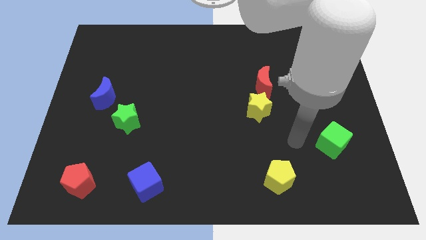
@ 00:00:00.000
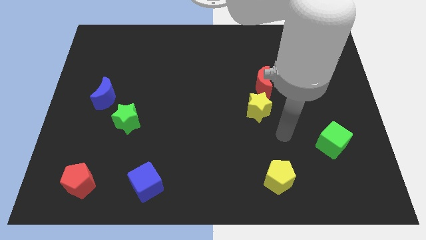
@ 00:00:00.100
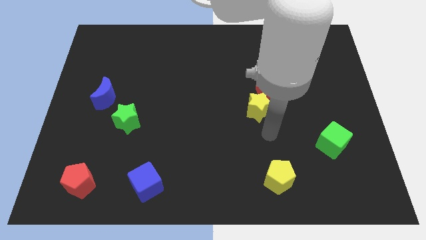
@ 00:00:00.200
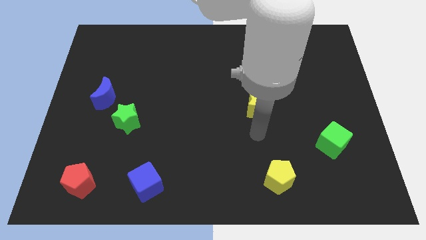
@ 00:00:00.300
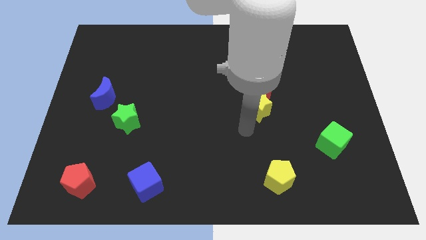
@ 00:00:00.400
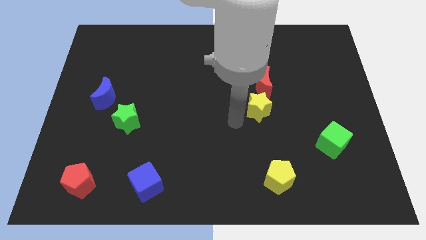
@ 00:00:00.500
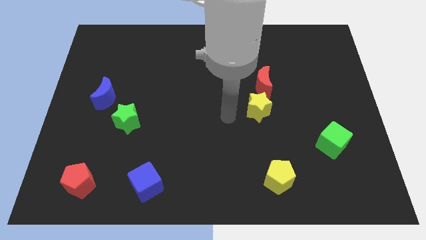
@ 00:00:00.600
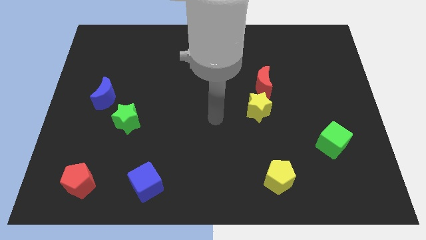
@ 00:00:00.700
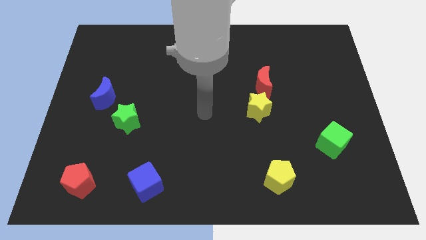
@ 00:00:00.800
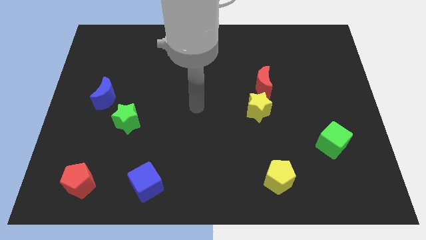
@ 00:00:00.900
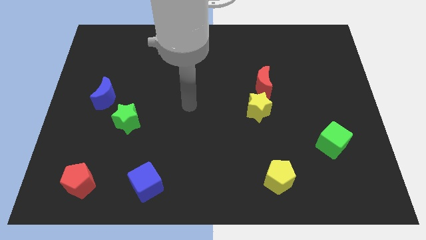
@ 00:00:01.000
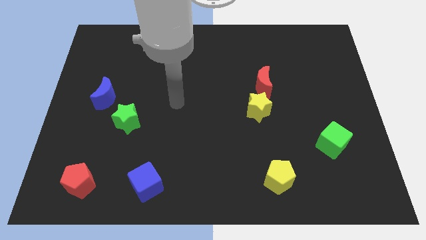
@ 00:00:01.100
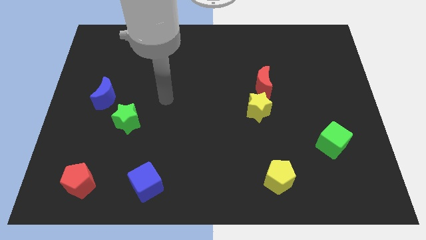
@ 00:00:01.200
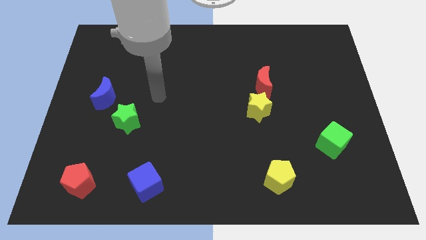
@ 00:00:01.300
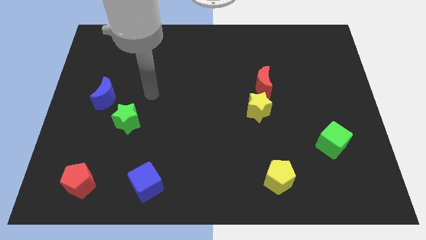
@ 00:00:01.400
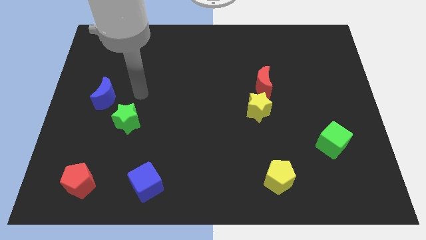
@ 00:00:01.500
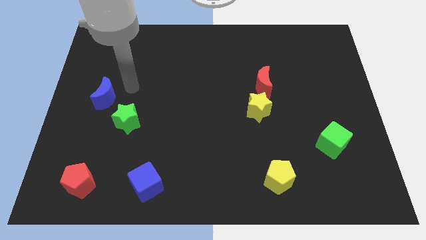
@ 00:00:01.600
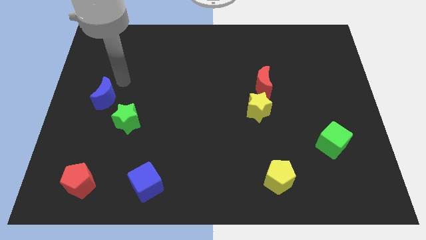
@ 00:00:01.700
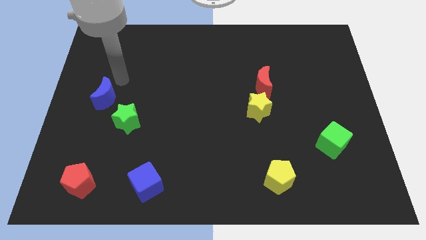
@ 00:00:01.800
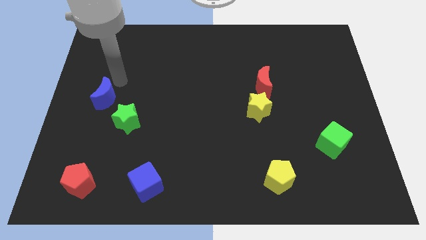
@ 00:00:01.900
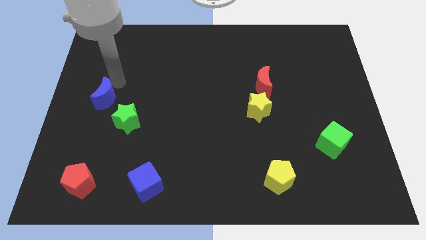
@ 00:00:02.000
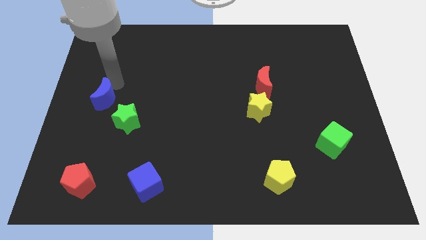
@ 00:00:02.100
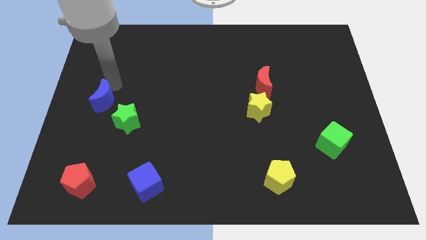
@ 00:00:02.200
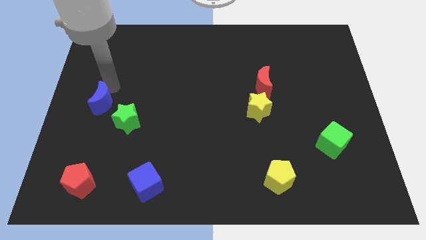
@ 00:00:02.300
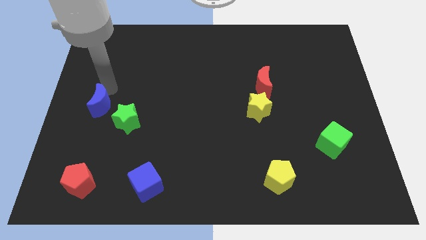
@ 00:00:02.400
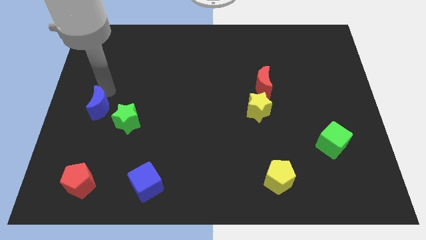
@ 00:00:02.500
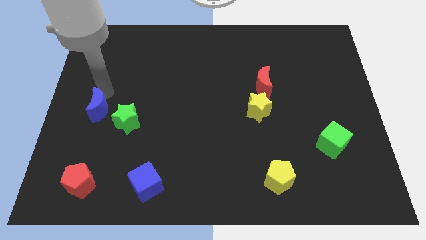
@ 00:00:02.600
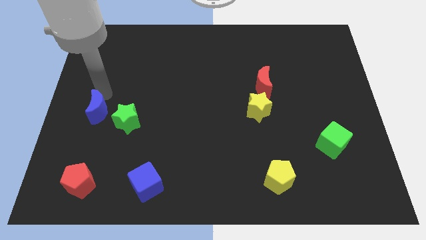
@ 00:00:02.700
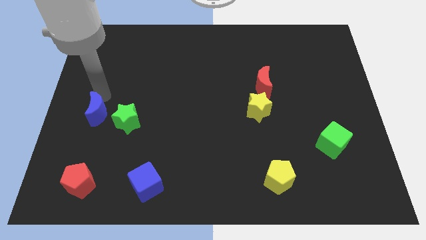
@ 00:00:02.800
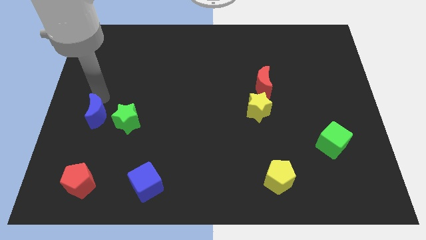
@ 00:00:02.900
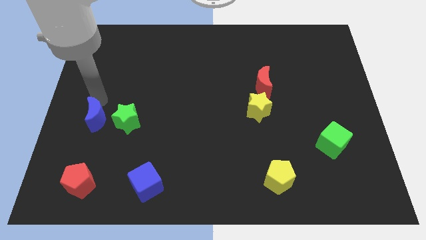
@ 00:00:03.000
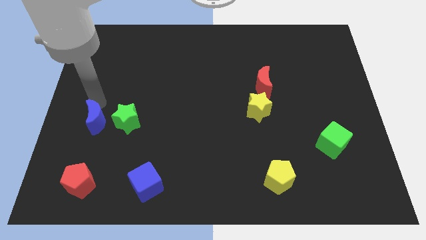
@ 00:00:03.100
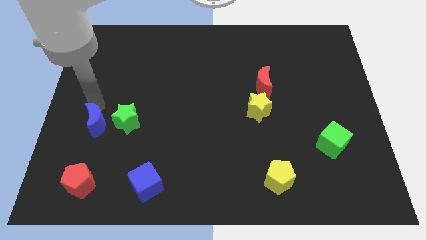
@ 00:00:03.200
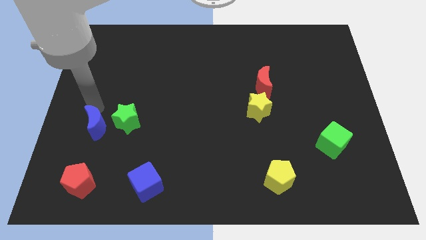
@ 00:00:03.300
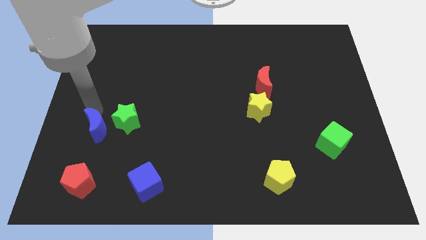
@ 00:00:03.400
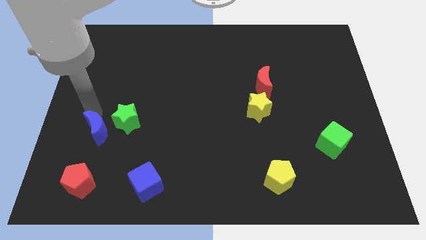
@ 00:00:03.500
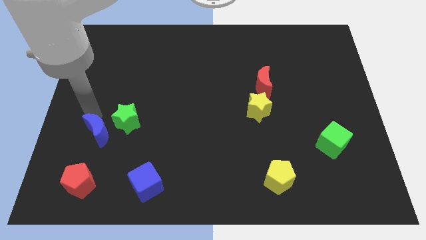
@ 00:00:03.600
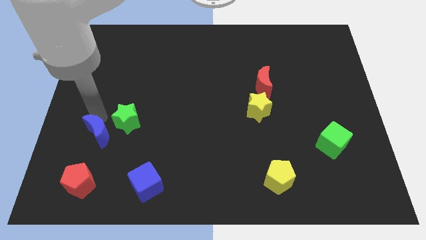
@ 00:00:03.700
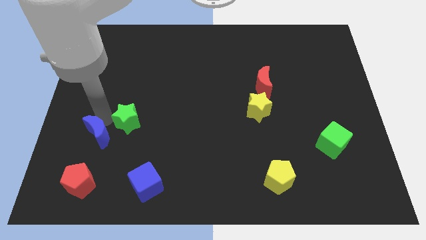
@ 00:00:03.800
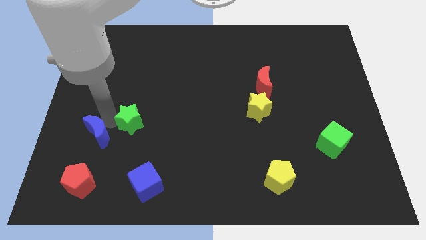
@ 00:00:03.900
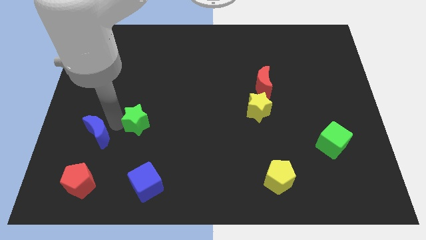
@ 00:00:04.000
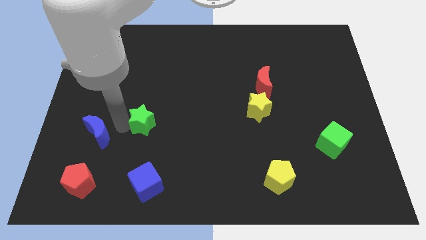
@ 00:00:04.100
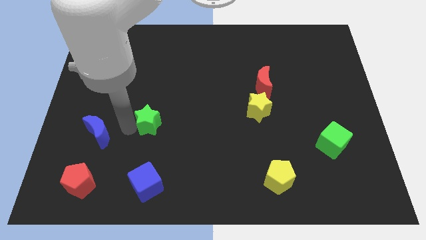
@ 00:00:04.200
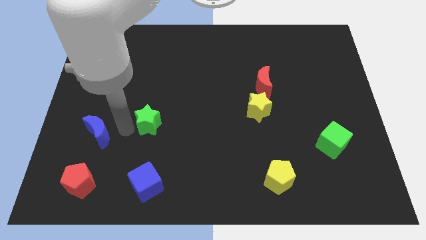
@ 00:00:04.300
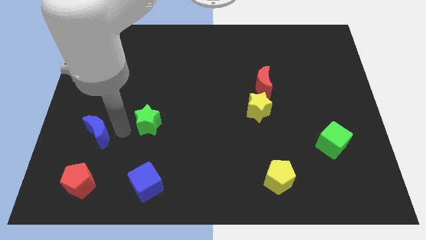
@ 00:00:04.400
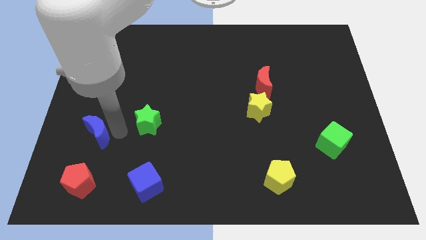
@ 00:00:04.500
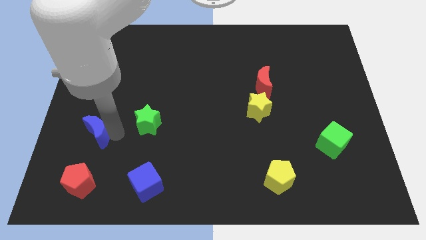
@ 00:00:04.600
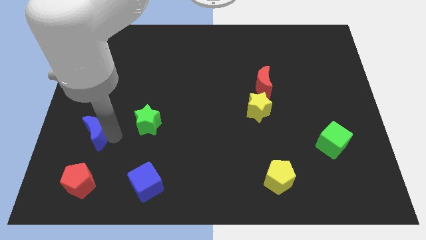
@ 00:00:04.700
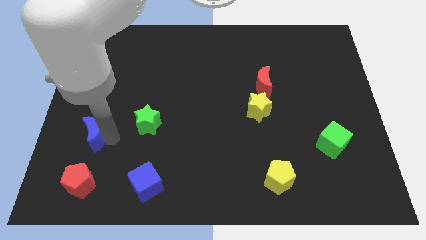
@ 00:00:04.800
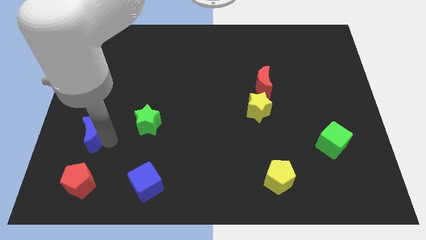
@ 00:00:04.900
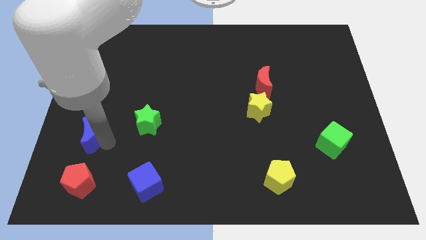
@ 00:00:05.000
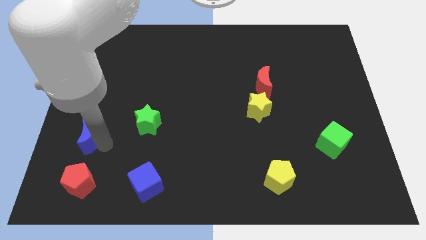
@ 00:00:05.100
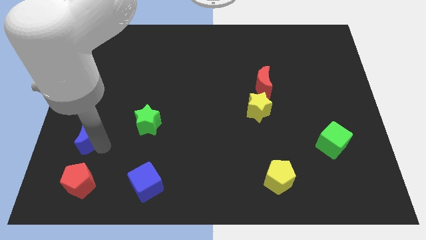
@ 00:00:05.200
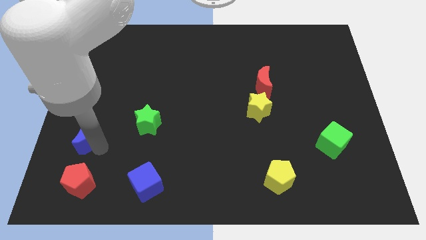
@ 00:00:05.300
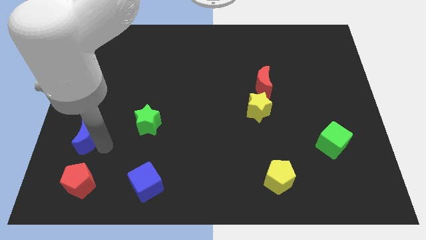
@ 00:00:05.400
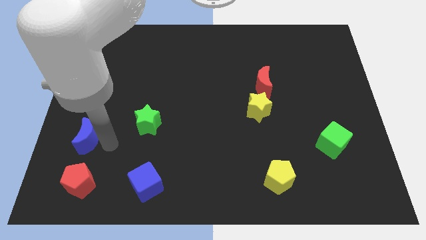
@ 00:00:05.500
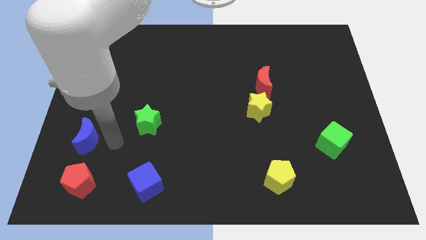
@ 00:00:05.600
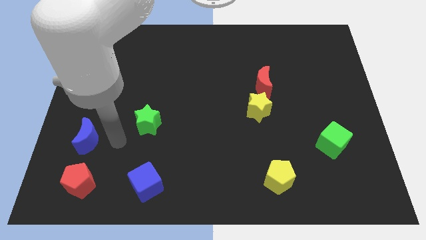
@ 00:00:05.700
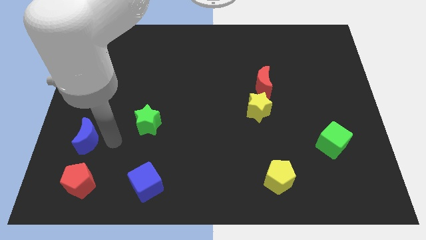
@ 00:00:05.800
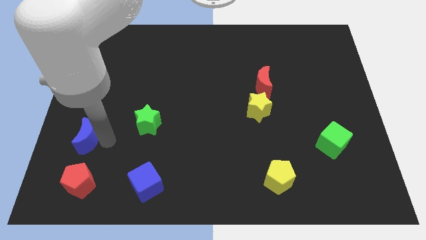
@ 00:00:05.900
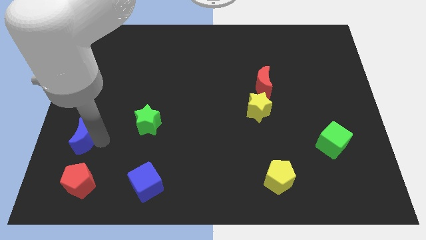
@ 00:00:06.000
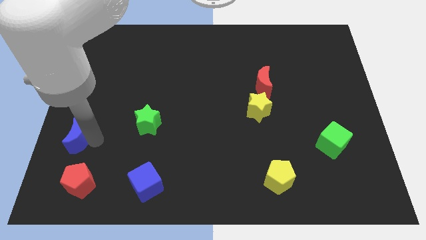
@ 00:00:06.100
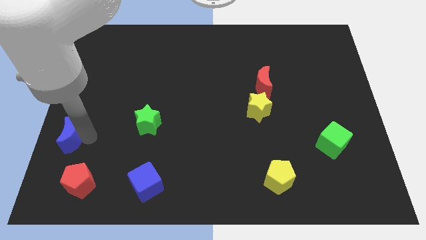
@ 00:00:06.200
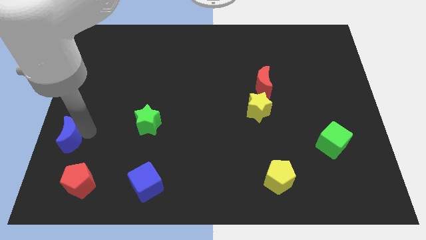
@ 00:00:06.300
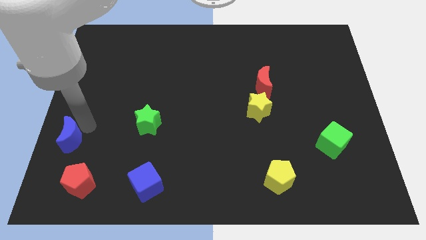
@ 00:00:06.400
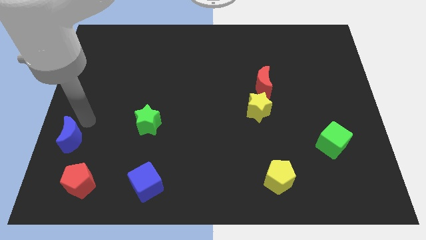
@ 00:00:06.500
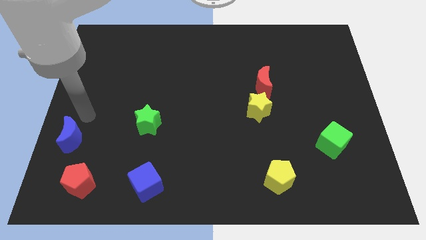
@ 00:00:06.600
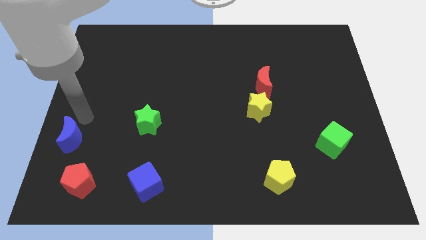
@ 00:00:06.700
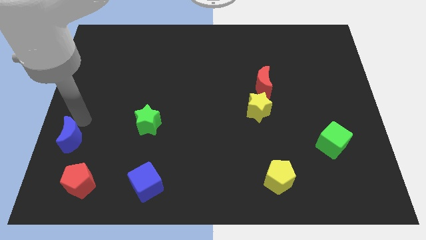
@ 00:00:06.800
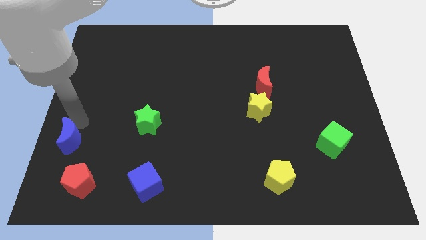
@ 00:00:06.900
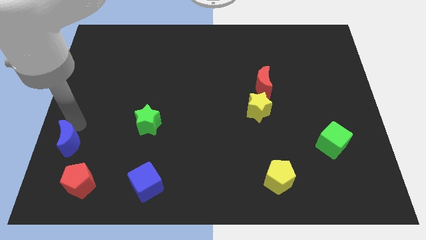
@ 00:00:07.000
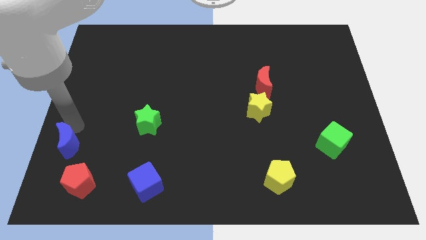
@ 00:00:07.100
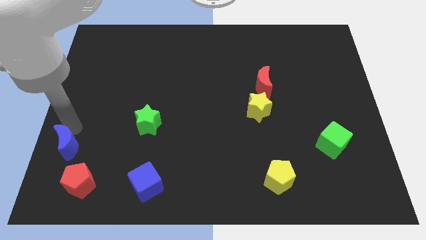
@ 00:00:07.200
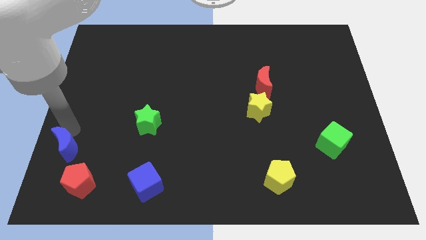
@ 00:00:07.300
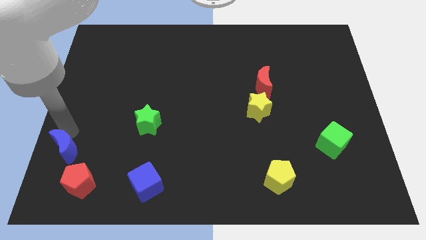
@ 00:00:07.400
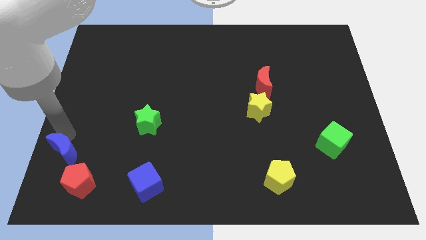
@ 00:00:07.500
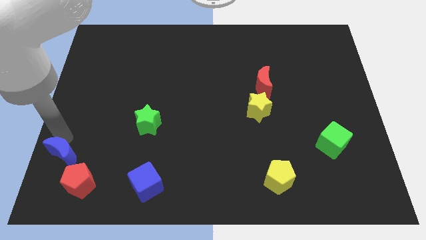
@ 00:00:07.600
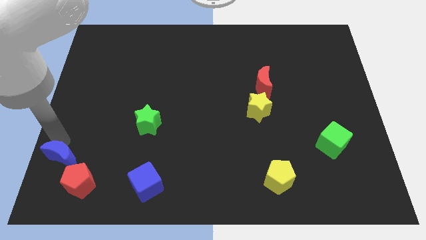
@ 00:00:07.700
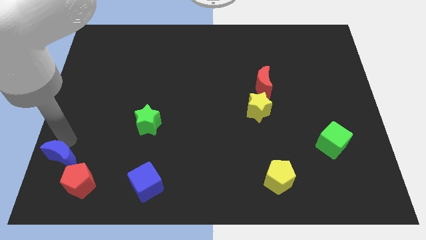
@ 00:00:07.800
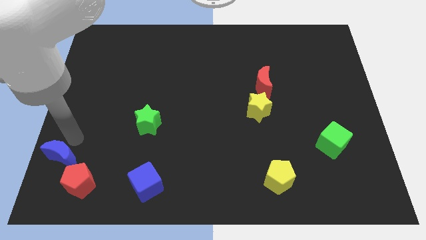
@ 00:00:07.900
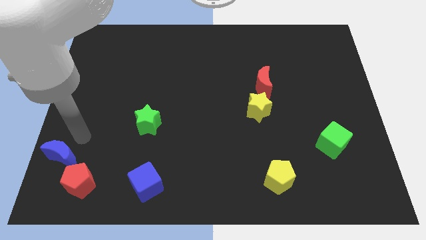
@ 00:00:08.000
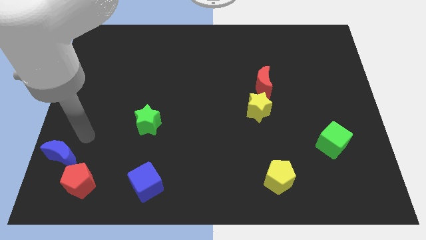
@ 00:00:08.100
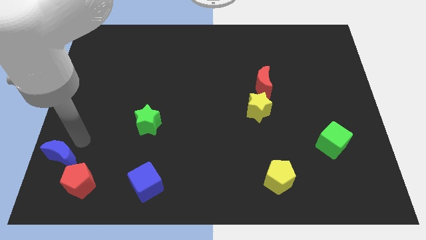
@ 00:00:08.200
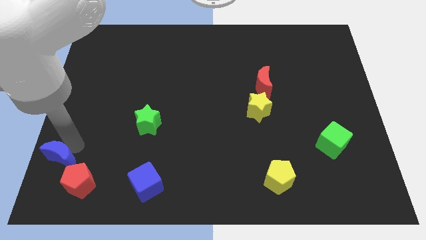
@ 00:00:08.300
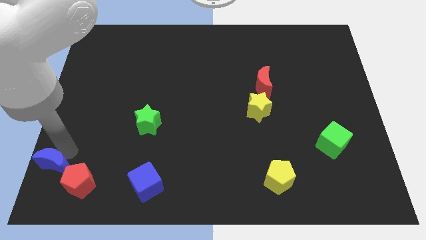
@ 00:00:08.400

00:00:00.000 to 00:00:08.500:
put the blue moon to the bottom left of the board
